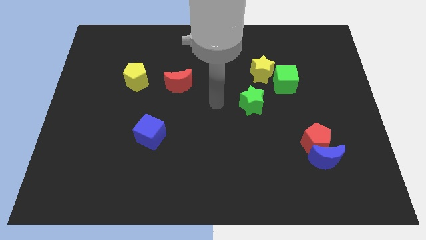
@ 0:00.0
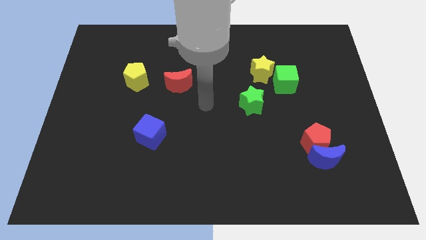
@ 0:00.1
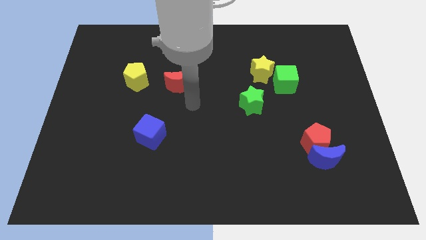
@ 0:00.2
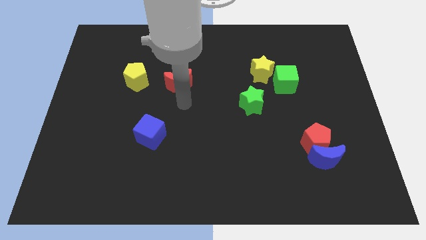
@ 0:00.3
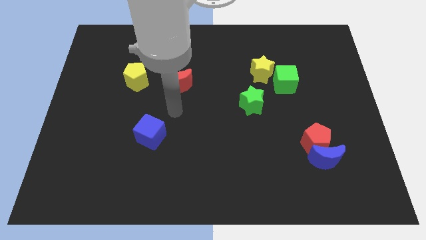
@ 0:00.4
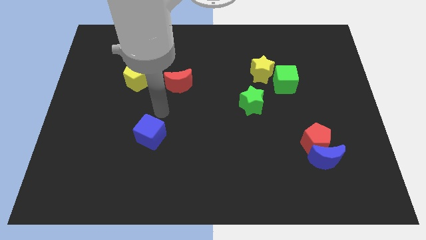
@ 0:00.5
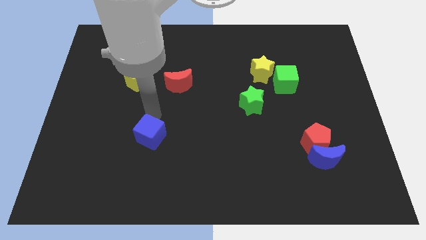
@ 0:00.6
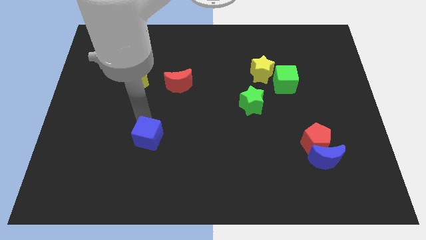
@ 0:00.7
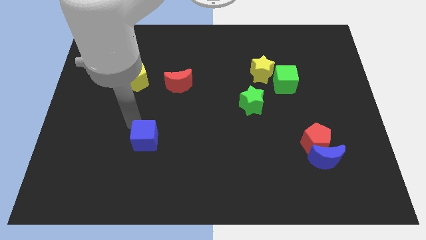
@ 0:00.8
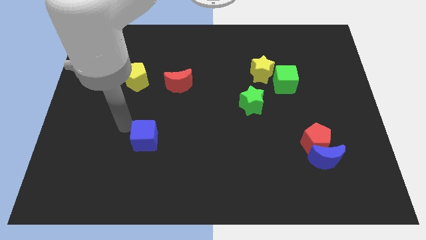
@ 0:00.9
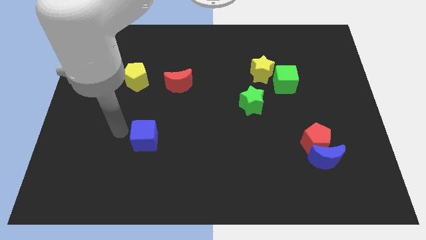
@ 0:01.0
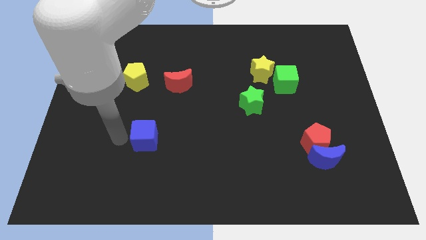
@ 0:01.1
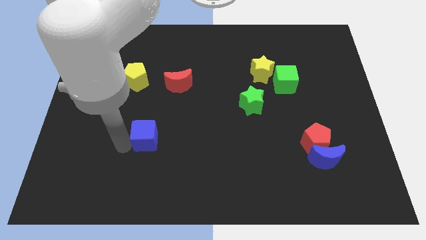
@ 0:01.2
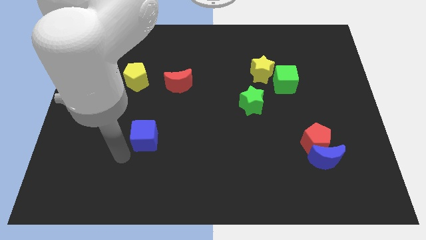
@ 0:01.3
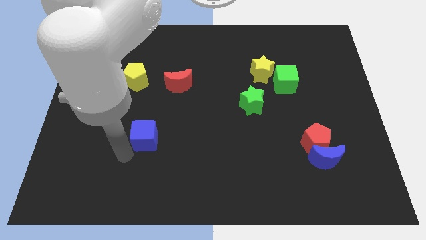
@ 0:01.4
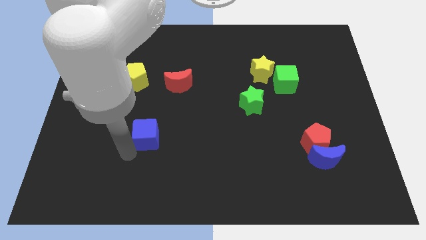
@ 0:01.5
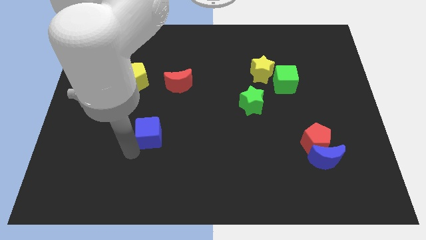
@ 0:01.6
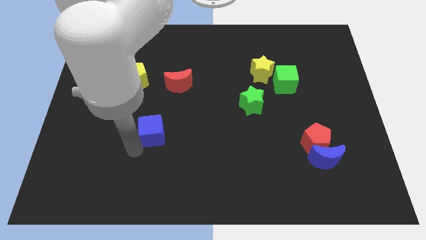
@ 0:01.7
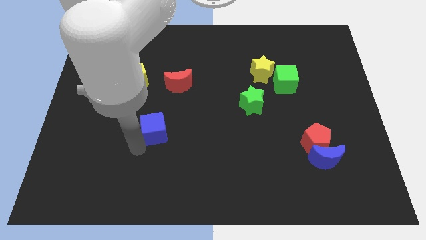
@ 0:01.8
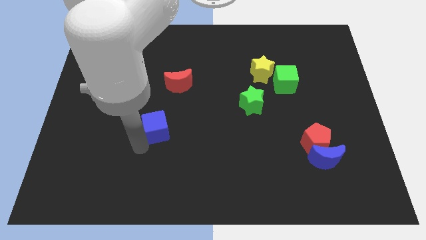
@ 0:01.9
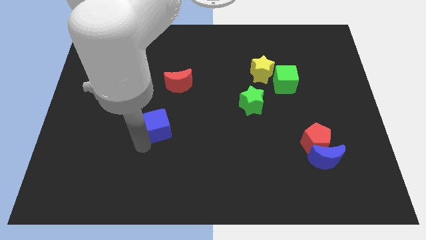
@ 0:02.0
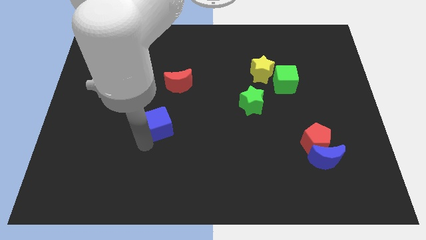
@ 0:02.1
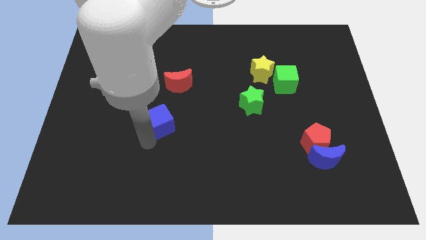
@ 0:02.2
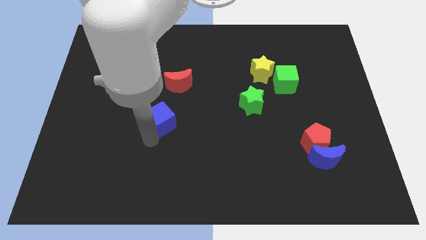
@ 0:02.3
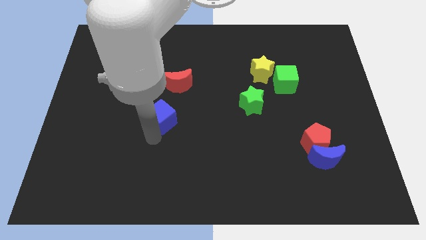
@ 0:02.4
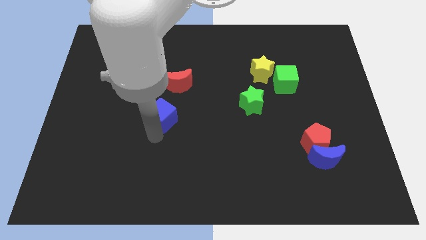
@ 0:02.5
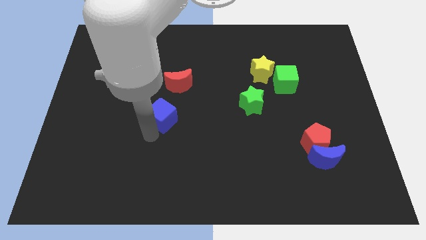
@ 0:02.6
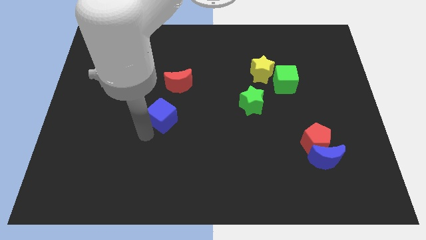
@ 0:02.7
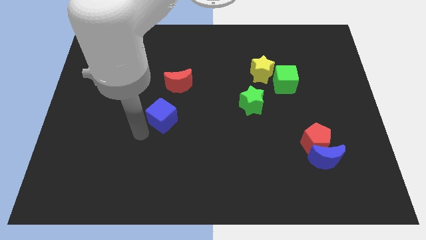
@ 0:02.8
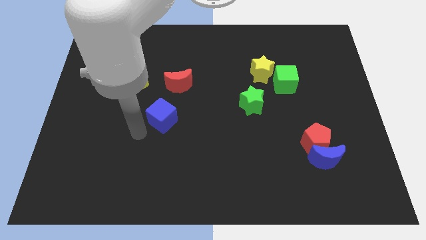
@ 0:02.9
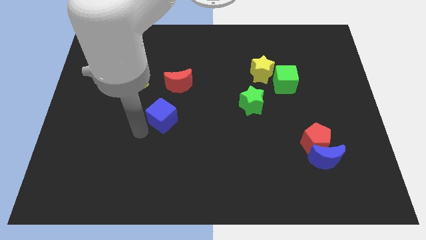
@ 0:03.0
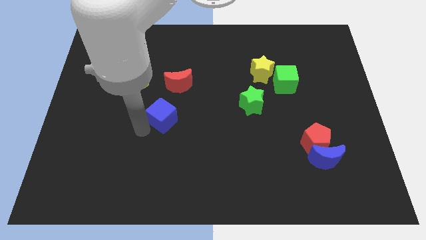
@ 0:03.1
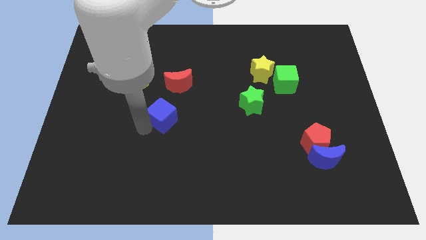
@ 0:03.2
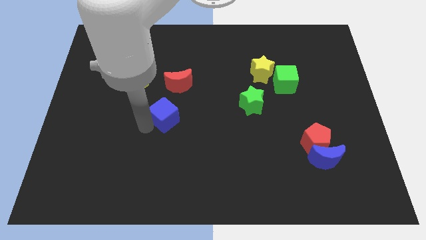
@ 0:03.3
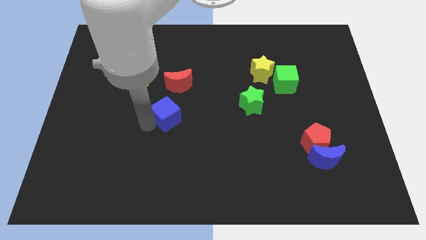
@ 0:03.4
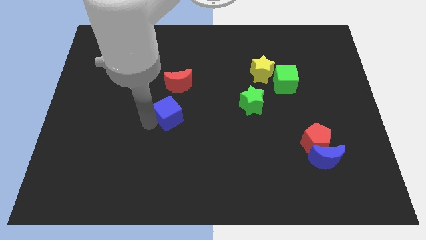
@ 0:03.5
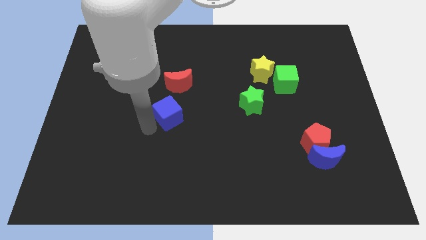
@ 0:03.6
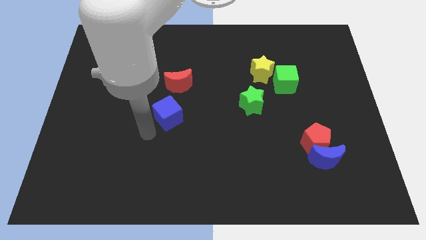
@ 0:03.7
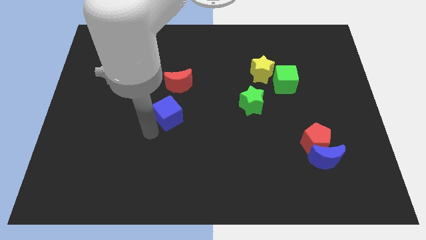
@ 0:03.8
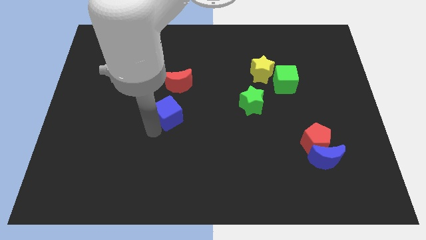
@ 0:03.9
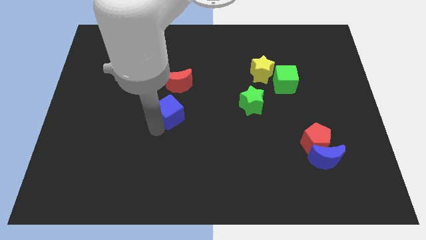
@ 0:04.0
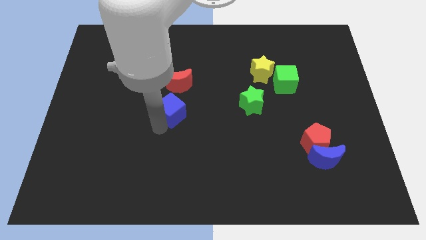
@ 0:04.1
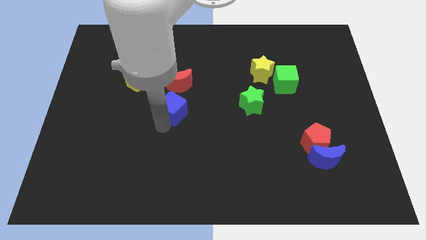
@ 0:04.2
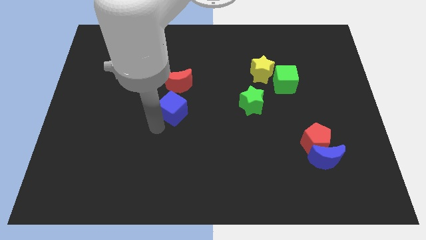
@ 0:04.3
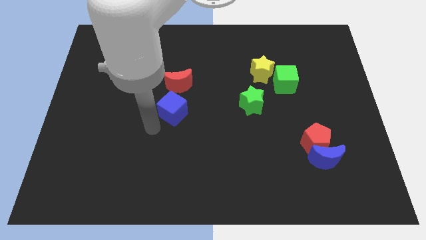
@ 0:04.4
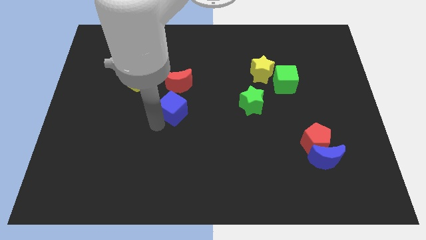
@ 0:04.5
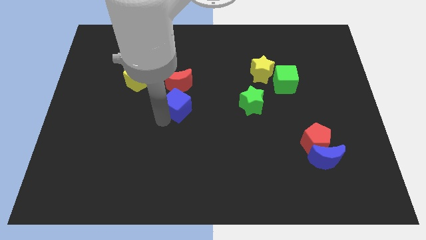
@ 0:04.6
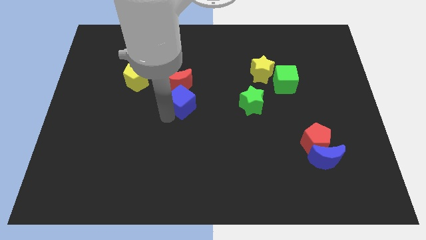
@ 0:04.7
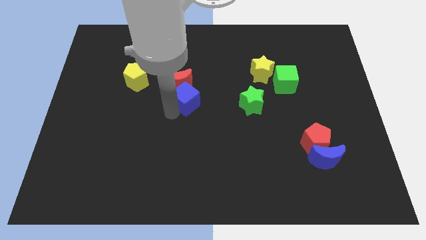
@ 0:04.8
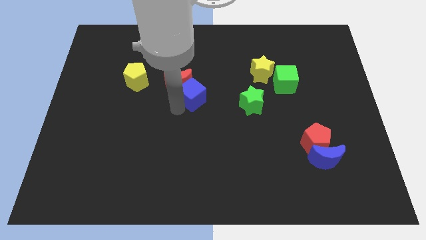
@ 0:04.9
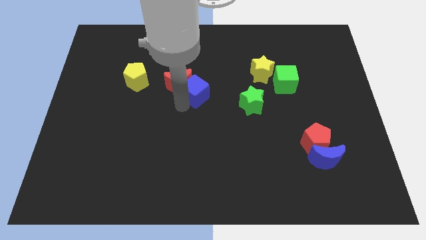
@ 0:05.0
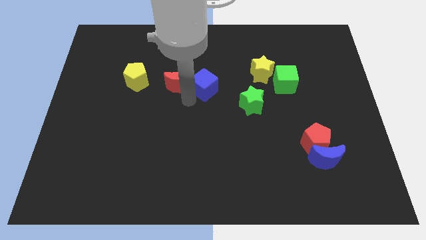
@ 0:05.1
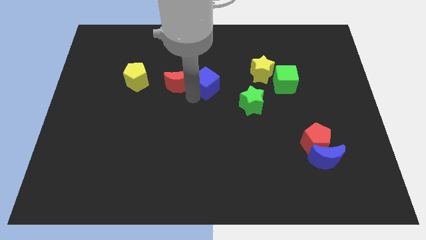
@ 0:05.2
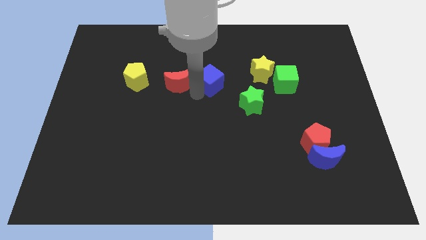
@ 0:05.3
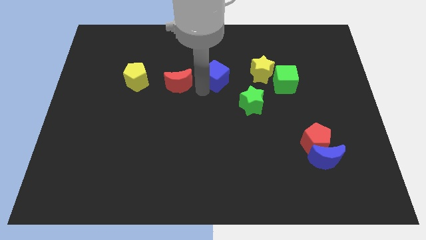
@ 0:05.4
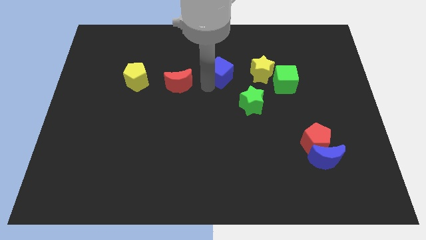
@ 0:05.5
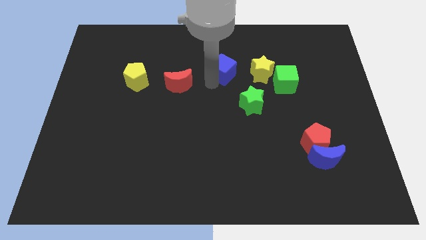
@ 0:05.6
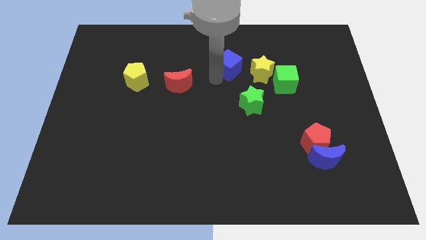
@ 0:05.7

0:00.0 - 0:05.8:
move the blue cube to the top left side of the yellow star

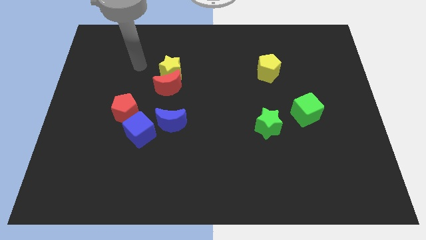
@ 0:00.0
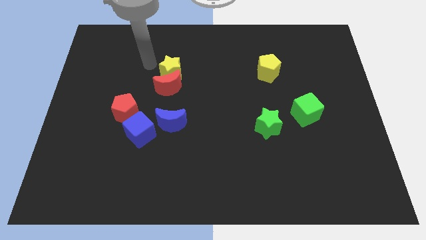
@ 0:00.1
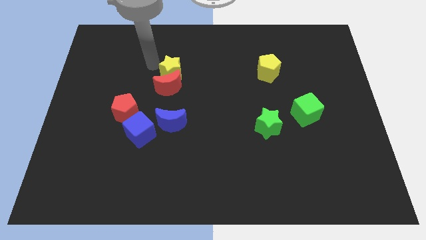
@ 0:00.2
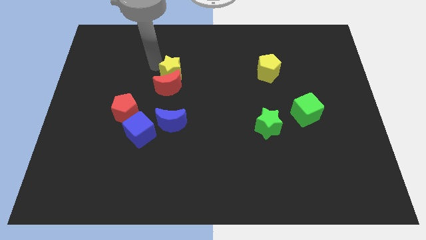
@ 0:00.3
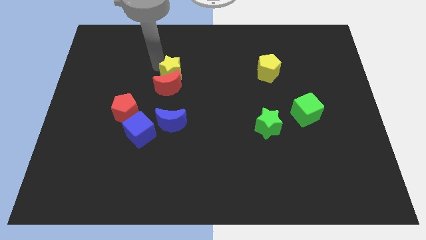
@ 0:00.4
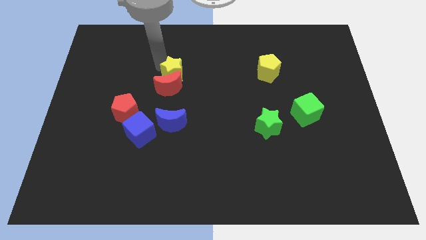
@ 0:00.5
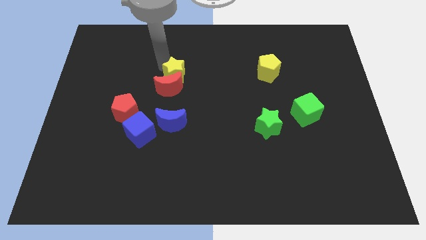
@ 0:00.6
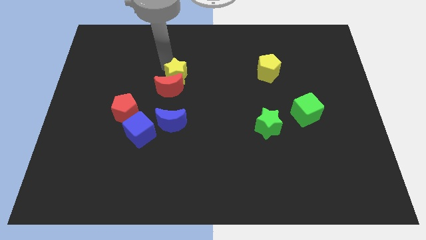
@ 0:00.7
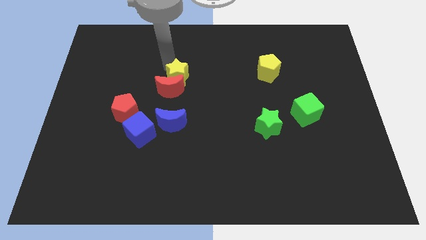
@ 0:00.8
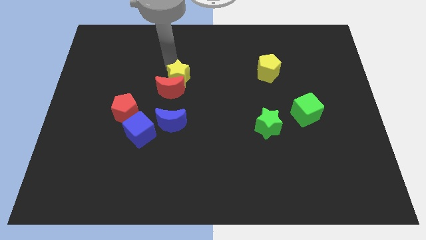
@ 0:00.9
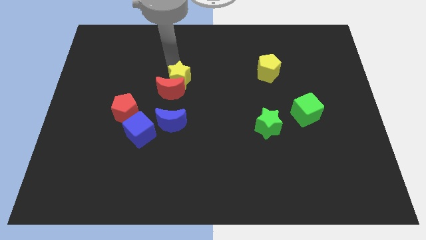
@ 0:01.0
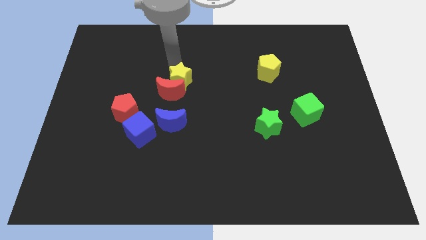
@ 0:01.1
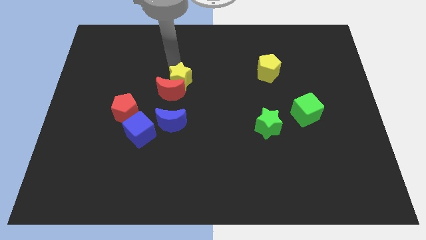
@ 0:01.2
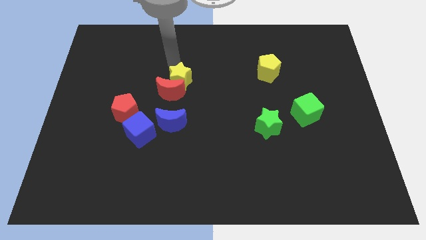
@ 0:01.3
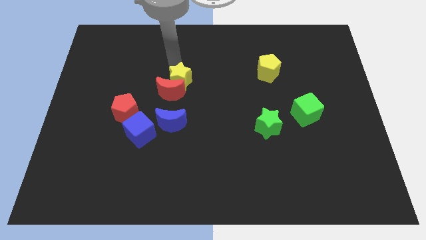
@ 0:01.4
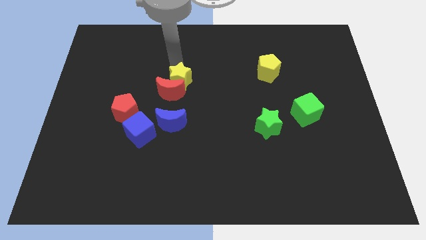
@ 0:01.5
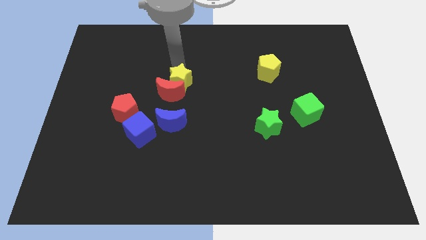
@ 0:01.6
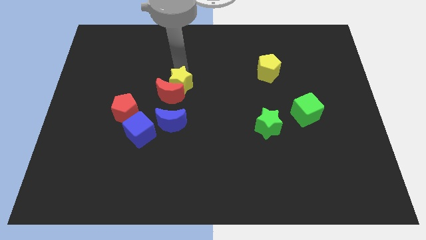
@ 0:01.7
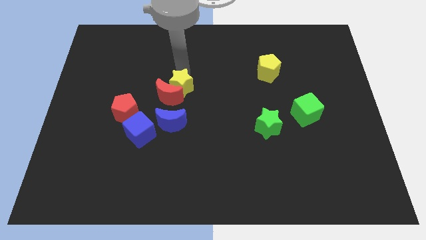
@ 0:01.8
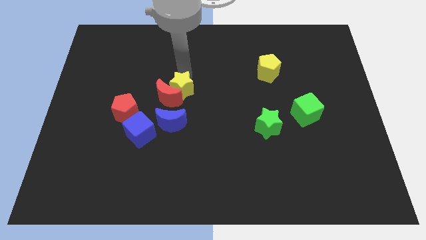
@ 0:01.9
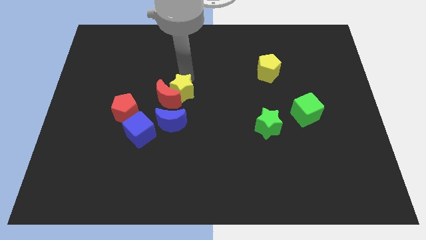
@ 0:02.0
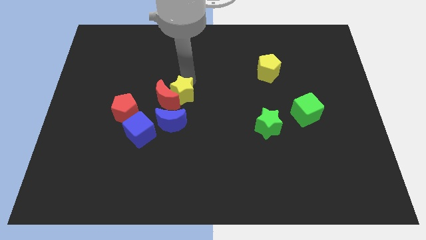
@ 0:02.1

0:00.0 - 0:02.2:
slide the yellow star diagonally down and to the right of the red moon
